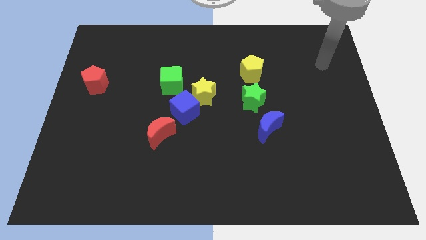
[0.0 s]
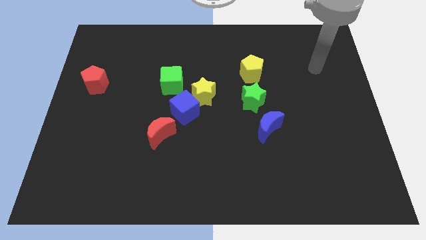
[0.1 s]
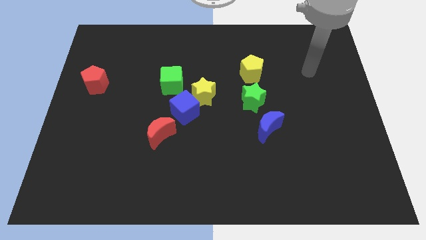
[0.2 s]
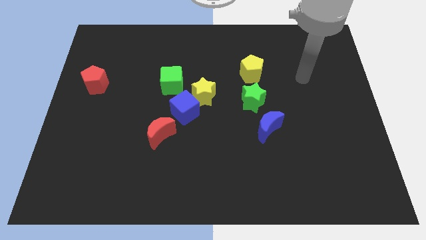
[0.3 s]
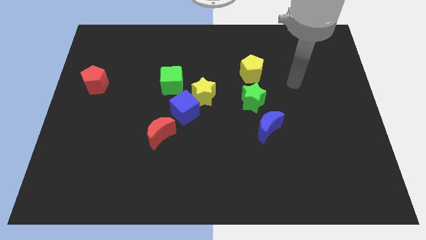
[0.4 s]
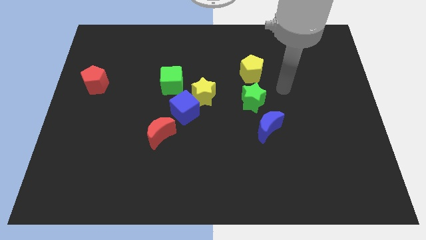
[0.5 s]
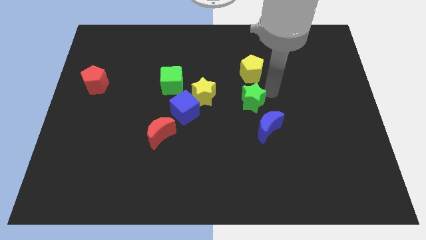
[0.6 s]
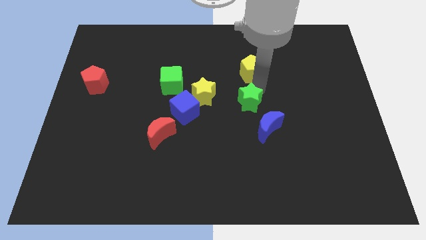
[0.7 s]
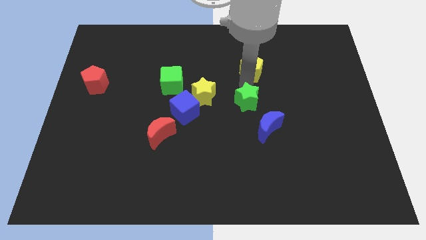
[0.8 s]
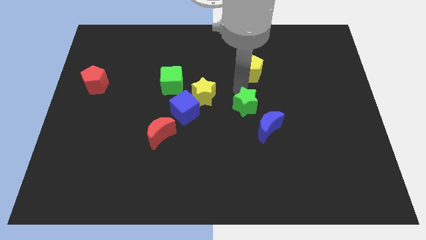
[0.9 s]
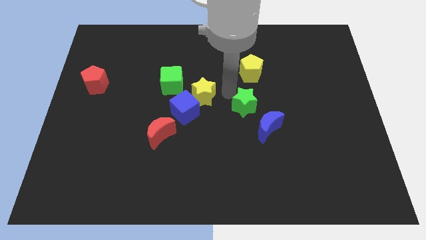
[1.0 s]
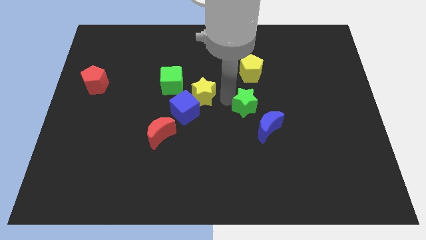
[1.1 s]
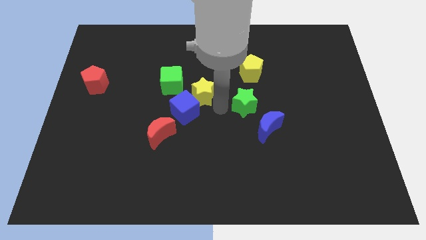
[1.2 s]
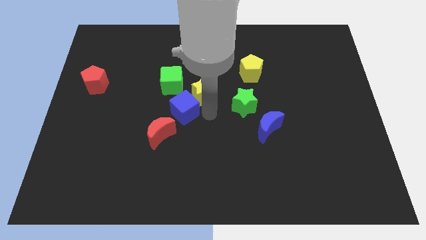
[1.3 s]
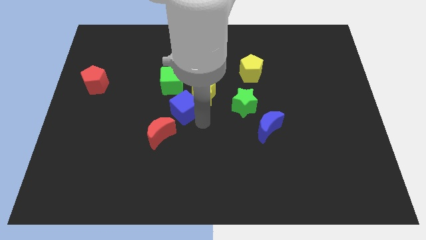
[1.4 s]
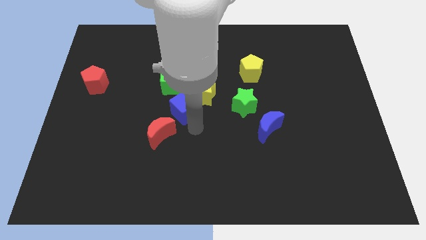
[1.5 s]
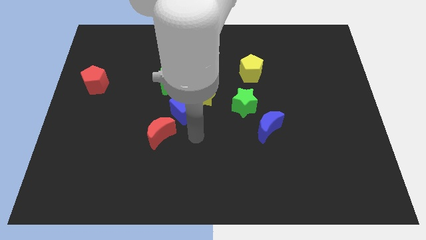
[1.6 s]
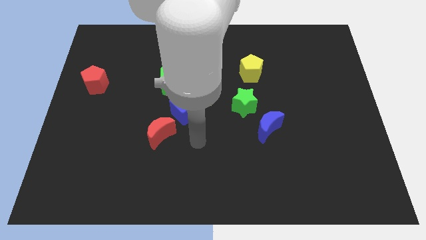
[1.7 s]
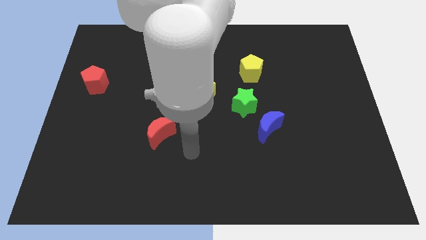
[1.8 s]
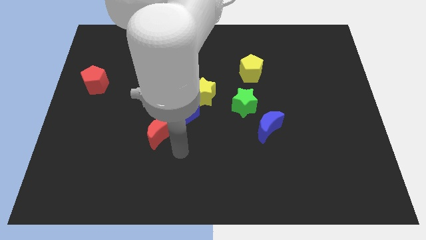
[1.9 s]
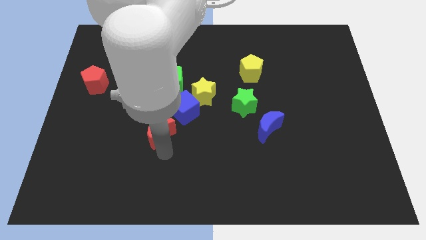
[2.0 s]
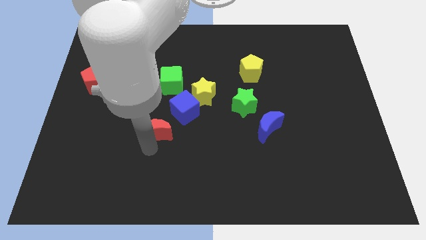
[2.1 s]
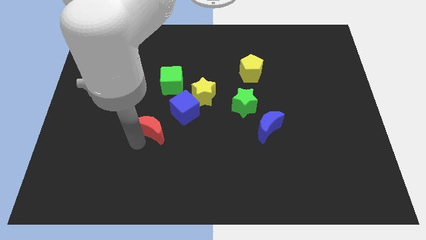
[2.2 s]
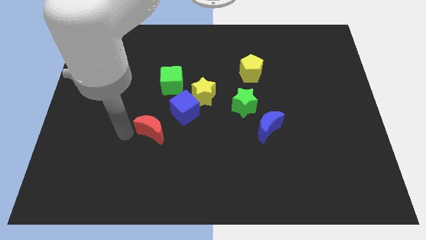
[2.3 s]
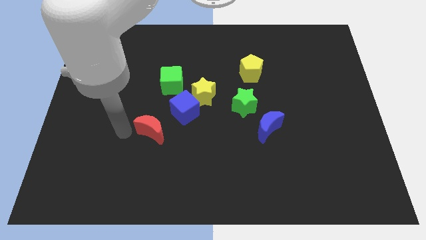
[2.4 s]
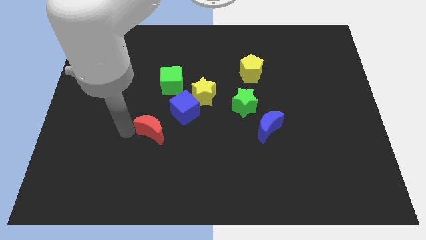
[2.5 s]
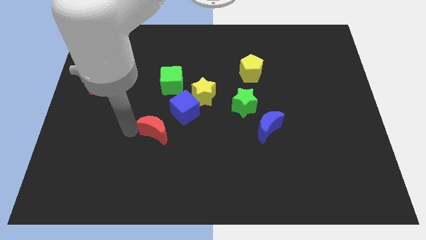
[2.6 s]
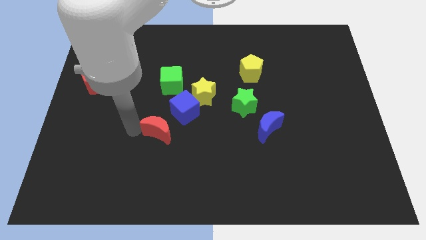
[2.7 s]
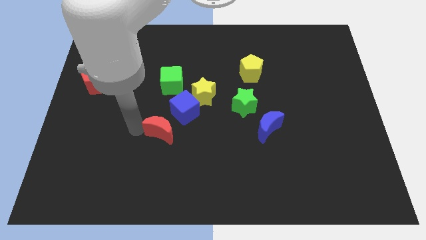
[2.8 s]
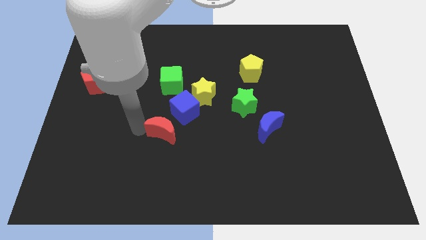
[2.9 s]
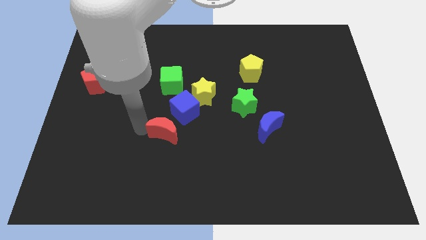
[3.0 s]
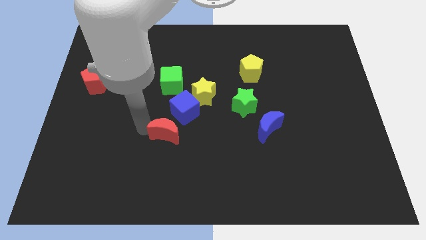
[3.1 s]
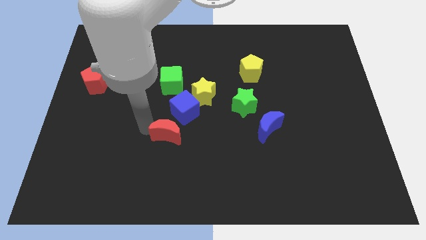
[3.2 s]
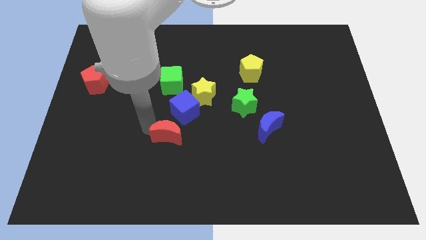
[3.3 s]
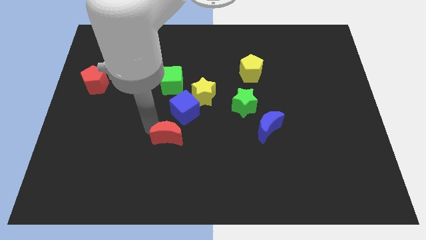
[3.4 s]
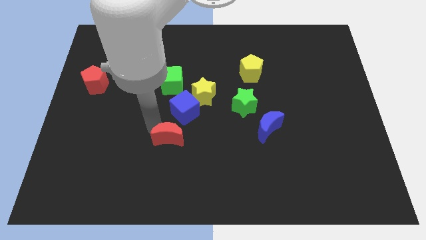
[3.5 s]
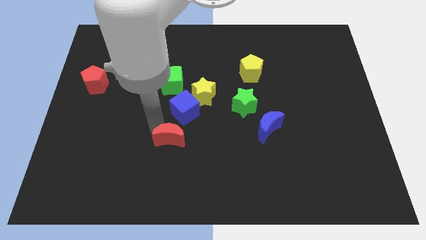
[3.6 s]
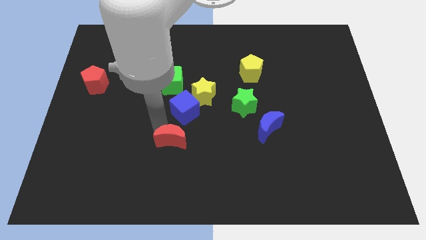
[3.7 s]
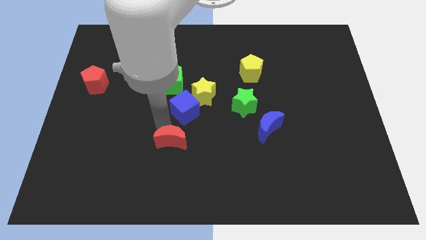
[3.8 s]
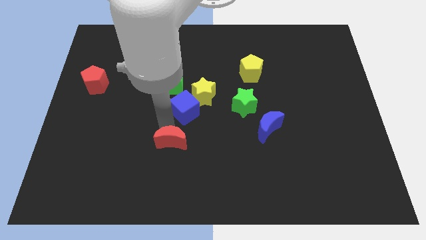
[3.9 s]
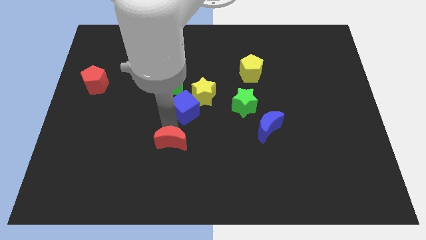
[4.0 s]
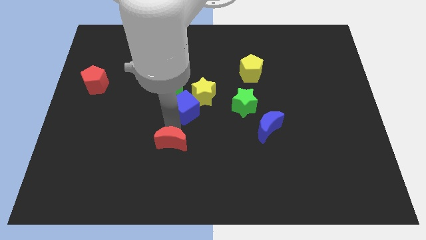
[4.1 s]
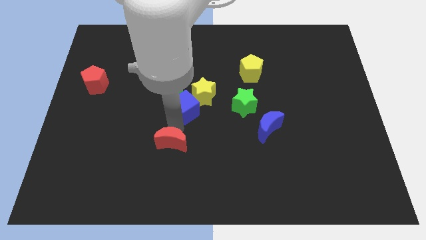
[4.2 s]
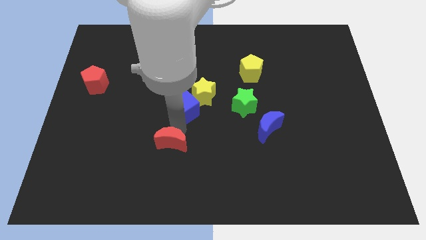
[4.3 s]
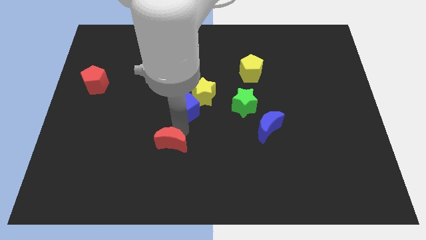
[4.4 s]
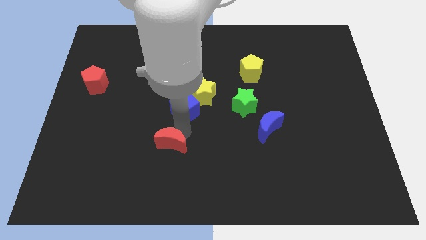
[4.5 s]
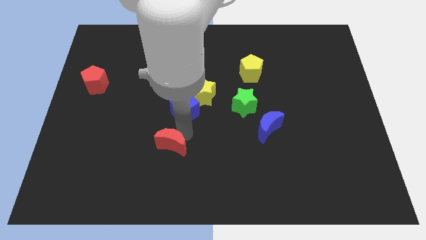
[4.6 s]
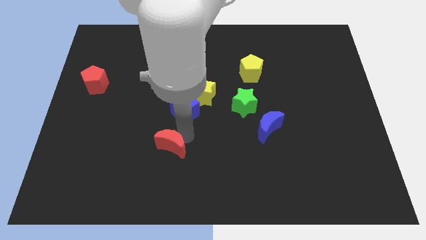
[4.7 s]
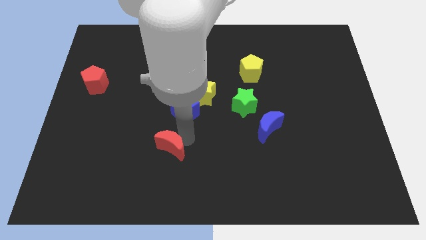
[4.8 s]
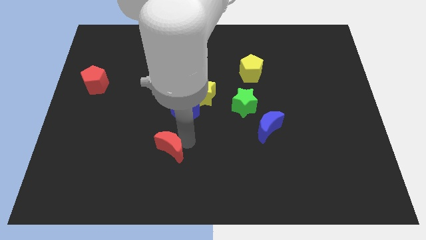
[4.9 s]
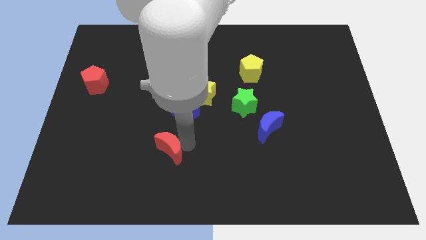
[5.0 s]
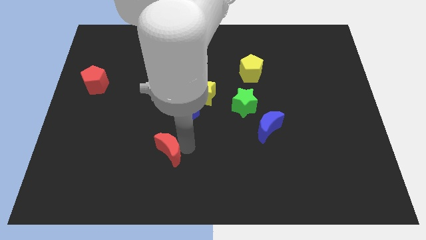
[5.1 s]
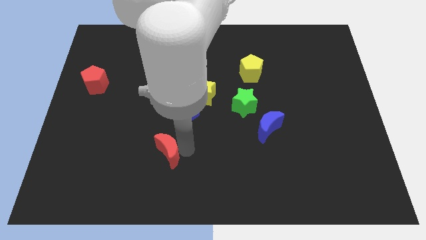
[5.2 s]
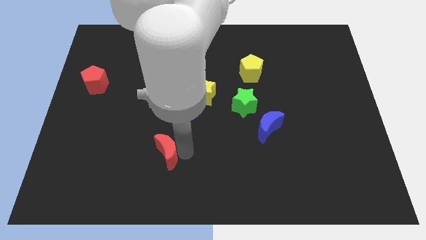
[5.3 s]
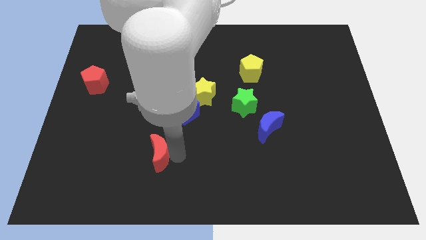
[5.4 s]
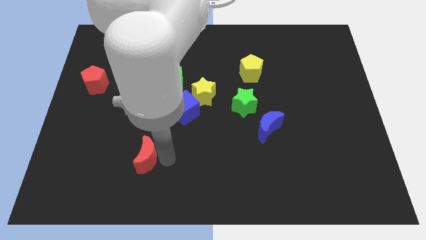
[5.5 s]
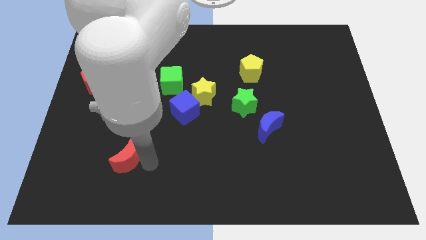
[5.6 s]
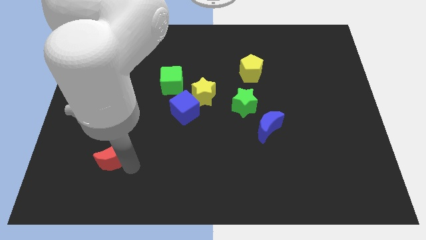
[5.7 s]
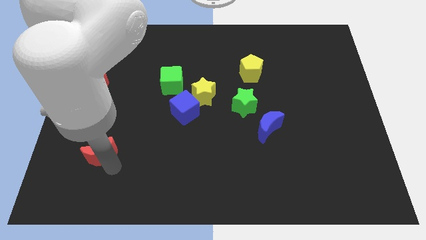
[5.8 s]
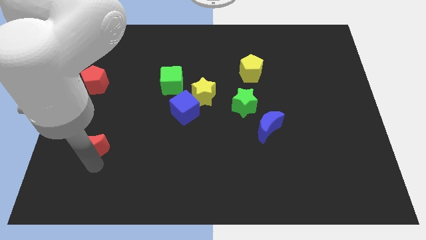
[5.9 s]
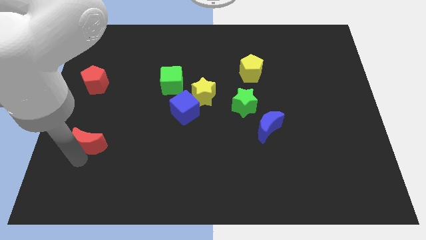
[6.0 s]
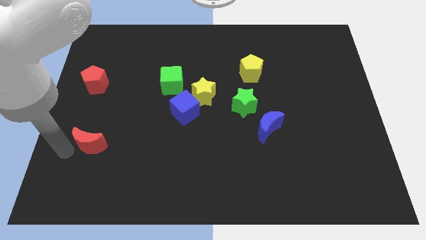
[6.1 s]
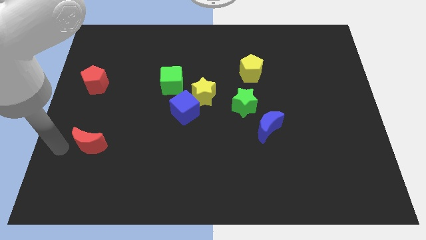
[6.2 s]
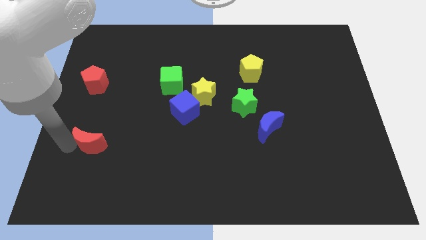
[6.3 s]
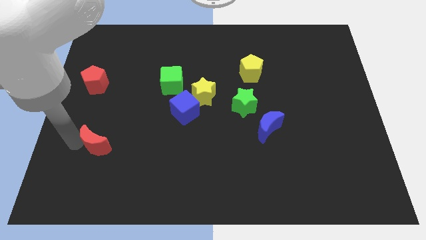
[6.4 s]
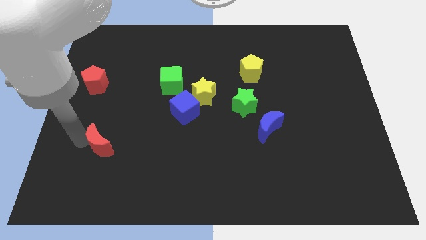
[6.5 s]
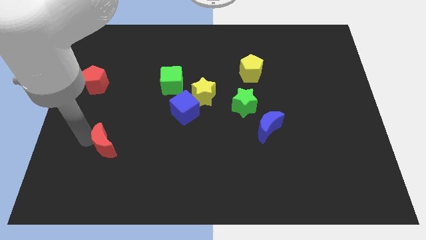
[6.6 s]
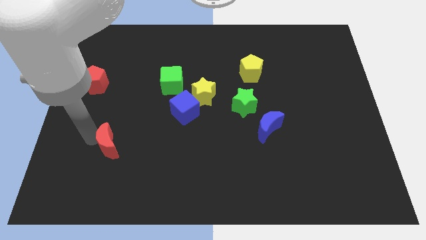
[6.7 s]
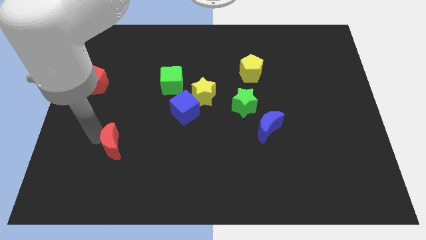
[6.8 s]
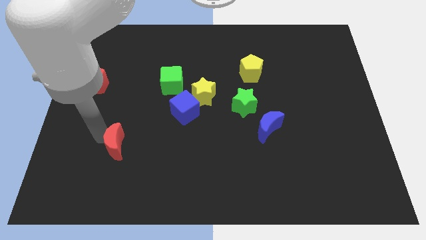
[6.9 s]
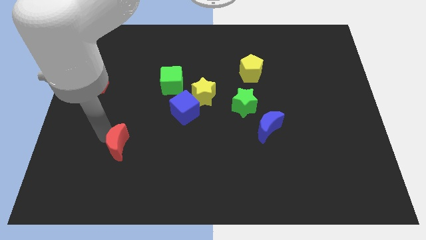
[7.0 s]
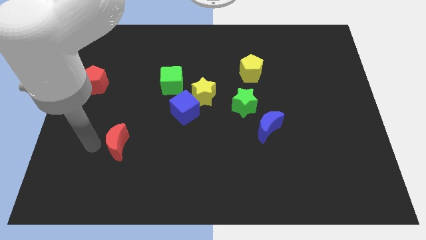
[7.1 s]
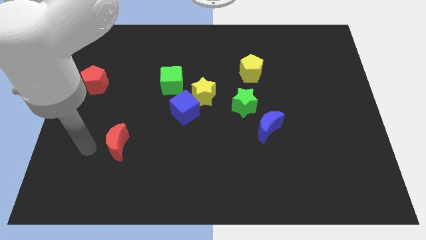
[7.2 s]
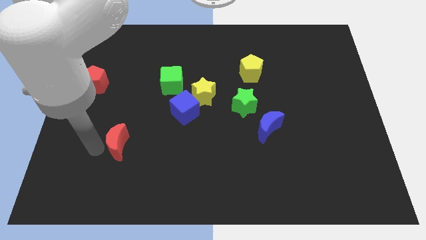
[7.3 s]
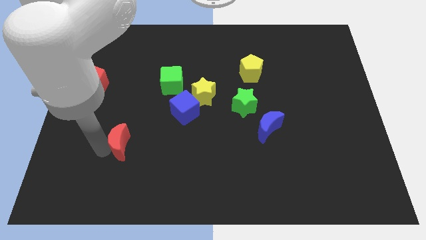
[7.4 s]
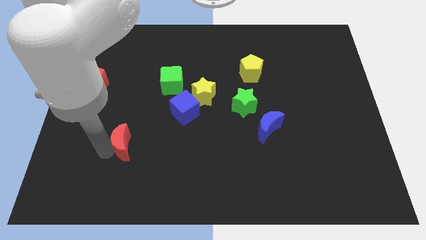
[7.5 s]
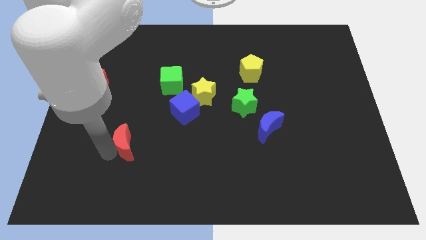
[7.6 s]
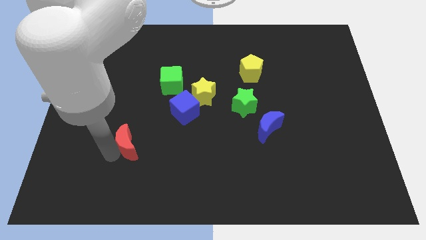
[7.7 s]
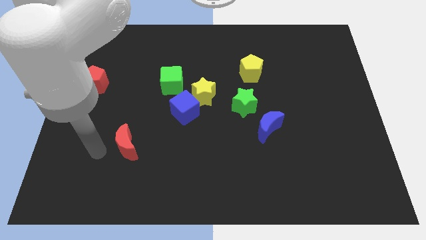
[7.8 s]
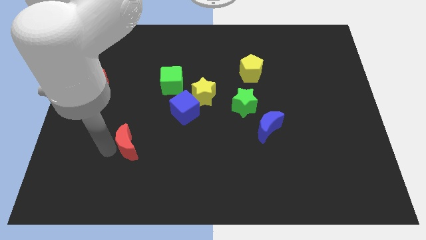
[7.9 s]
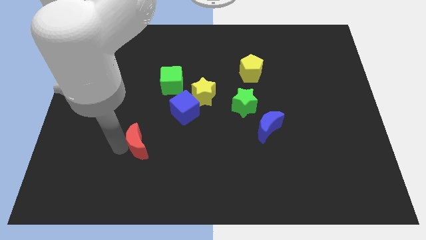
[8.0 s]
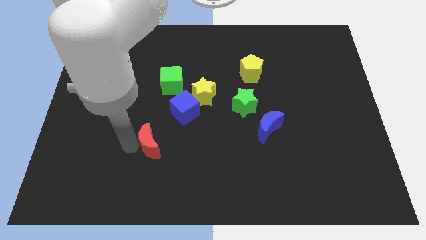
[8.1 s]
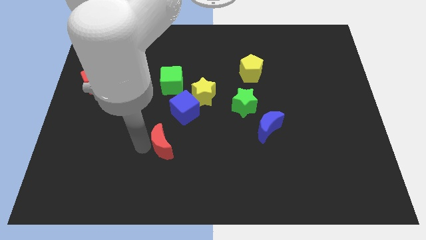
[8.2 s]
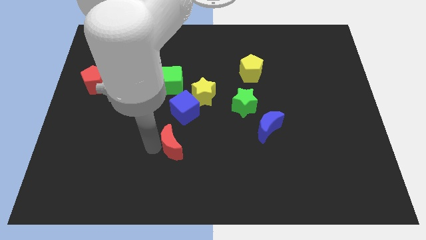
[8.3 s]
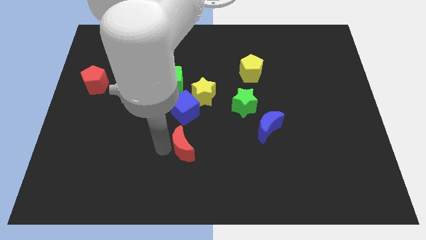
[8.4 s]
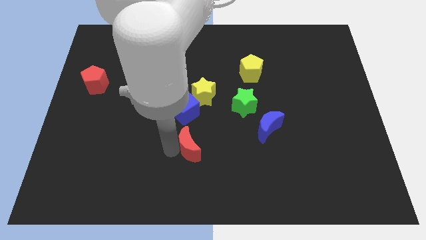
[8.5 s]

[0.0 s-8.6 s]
push the red moon below the yellow star
